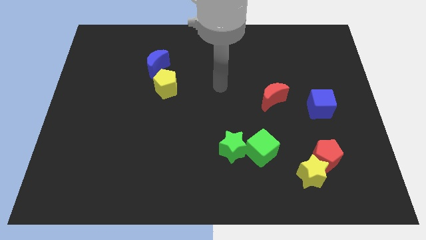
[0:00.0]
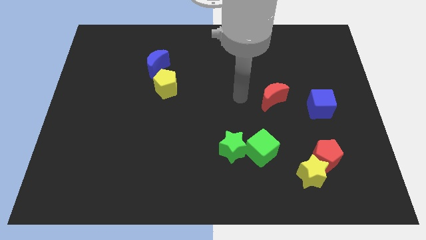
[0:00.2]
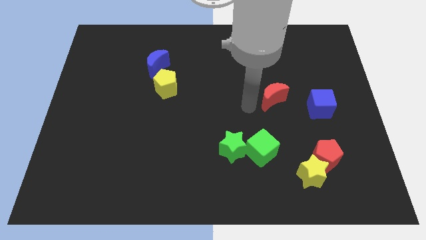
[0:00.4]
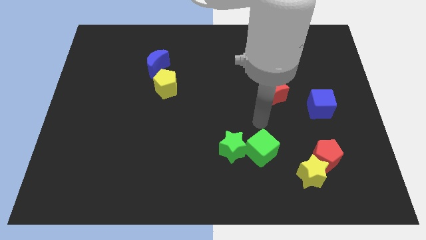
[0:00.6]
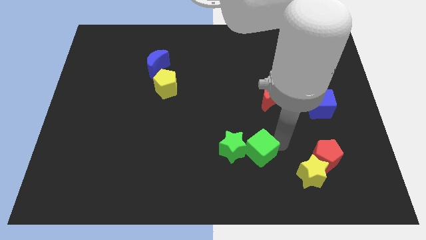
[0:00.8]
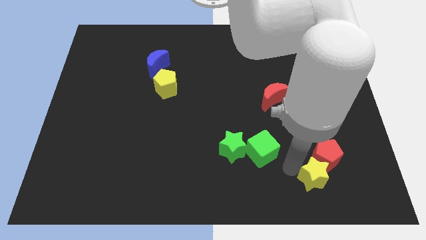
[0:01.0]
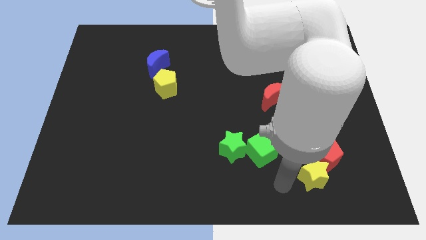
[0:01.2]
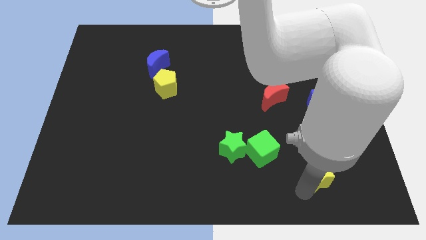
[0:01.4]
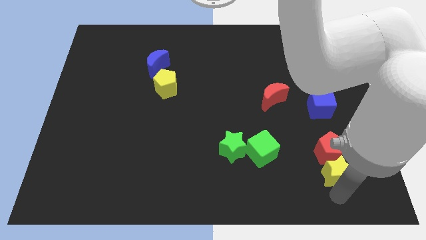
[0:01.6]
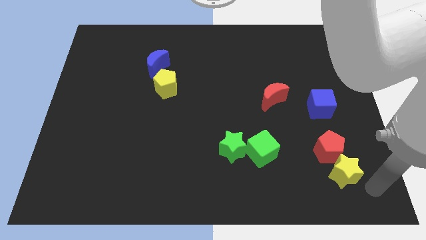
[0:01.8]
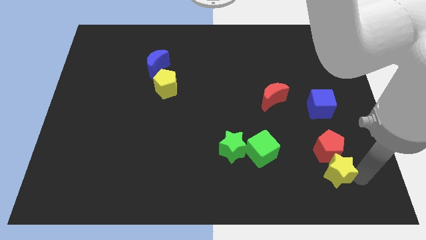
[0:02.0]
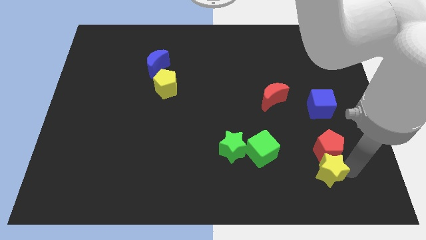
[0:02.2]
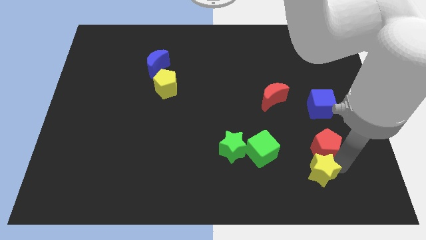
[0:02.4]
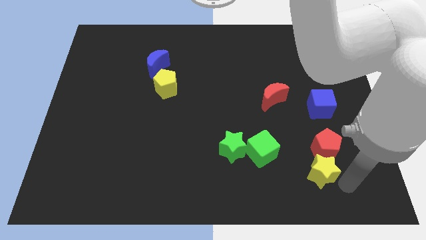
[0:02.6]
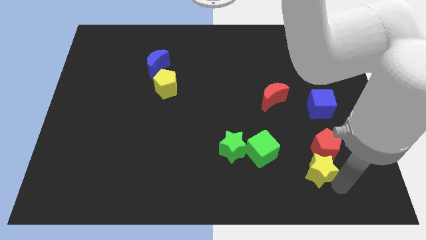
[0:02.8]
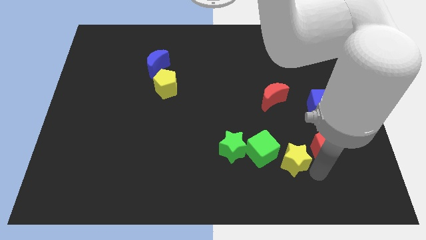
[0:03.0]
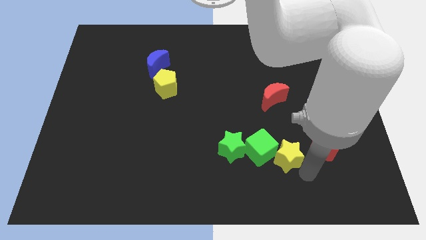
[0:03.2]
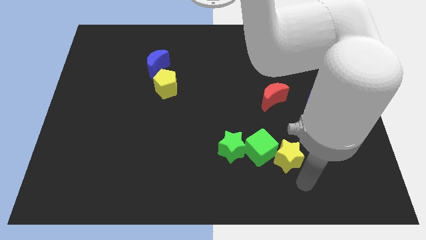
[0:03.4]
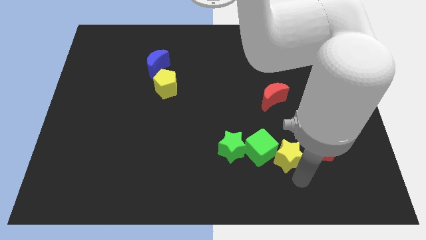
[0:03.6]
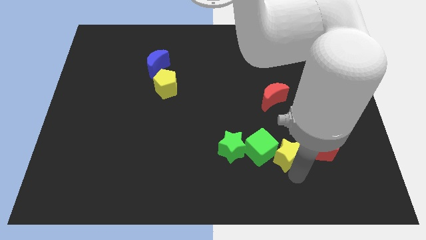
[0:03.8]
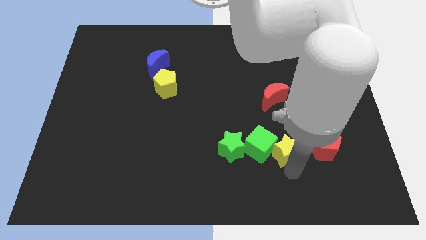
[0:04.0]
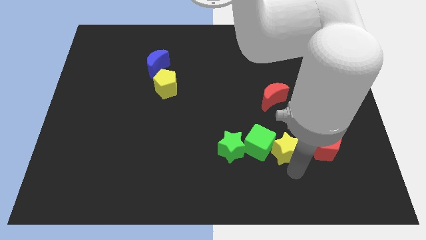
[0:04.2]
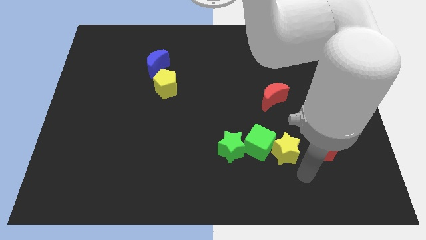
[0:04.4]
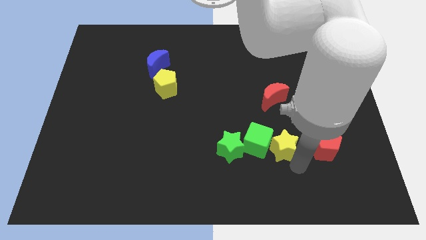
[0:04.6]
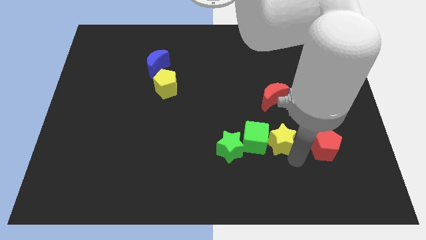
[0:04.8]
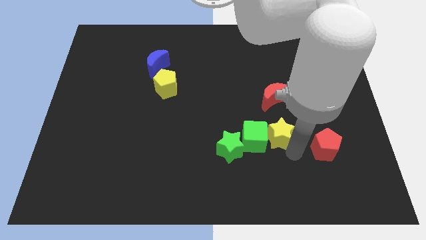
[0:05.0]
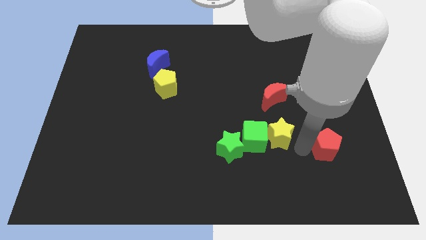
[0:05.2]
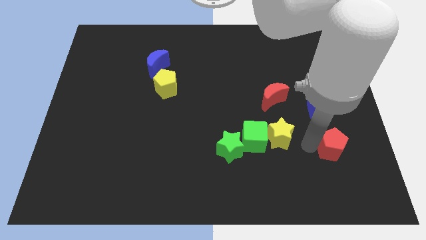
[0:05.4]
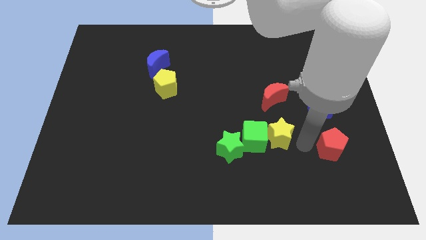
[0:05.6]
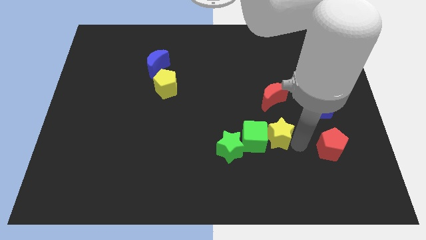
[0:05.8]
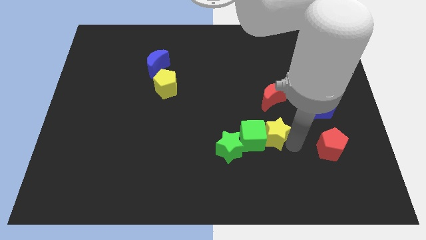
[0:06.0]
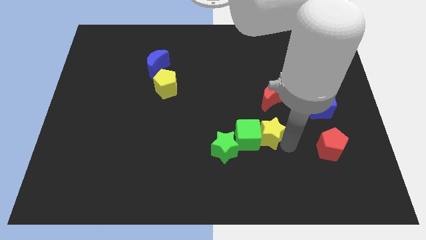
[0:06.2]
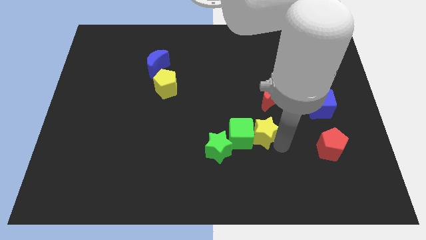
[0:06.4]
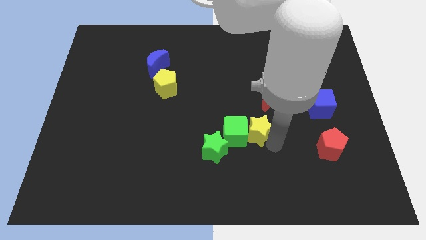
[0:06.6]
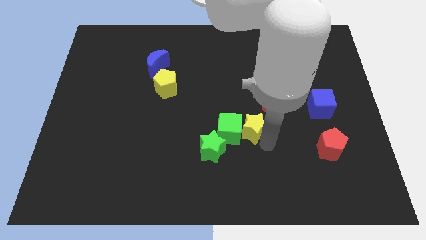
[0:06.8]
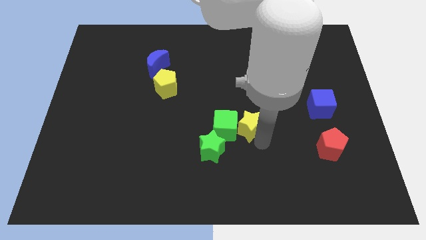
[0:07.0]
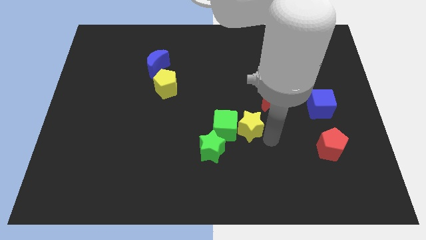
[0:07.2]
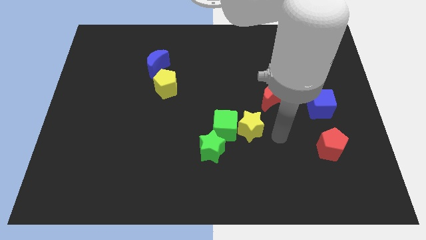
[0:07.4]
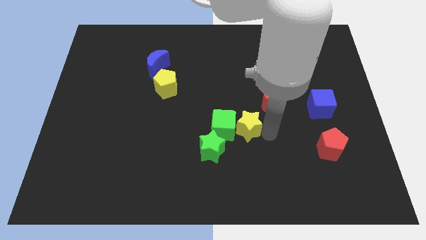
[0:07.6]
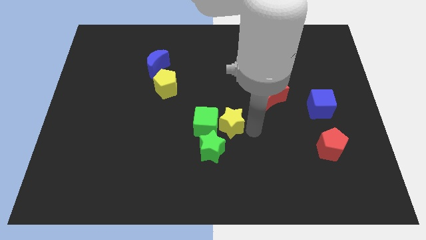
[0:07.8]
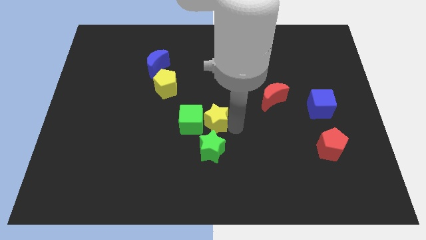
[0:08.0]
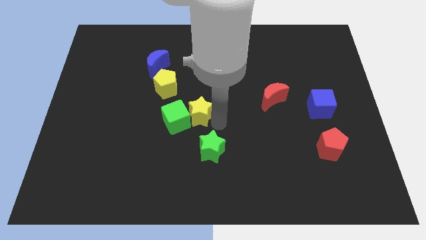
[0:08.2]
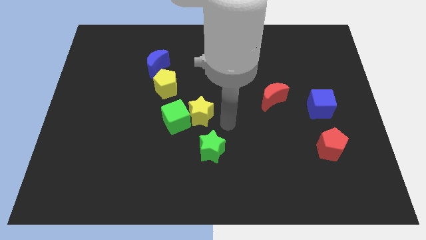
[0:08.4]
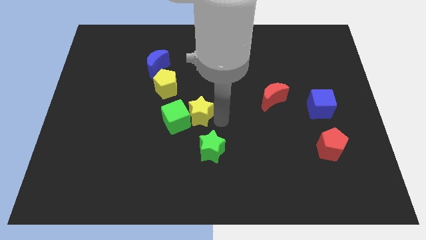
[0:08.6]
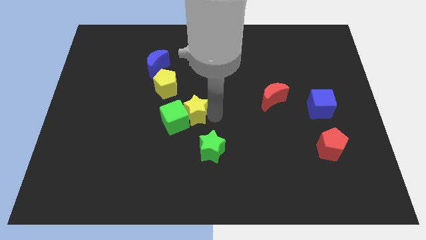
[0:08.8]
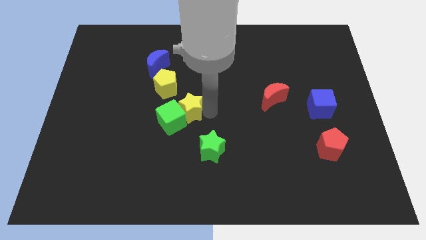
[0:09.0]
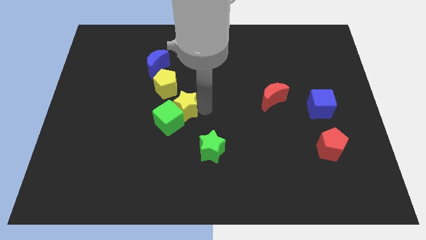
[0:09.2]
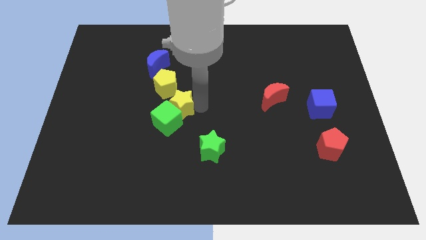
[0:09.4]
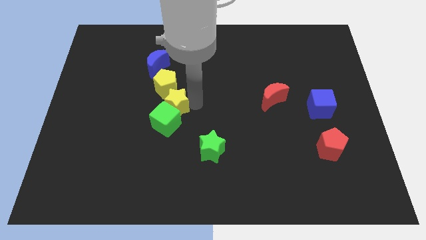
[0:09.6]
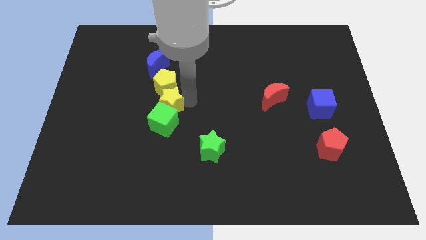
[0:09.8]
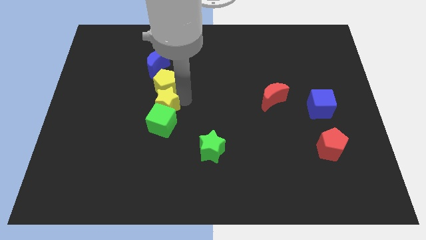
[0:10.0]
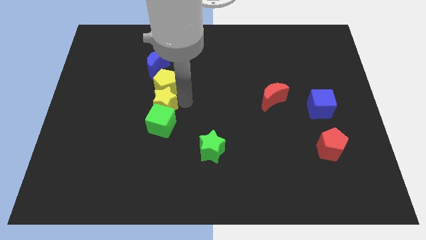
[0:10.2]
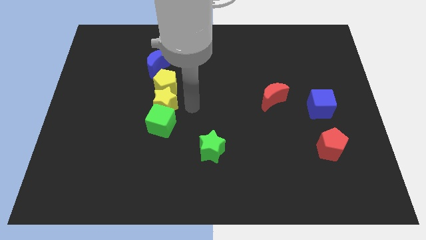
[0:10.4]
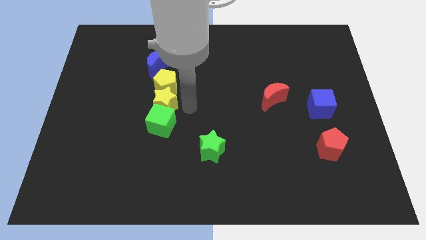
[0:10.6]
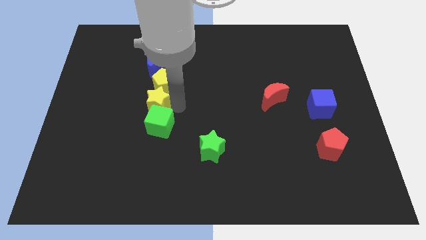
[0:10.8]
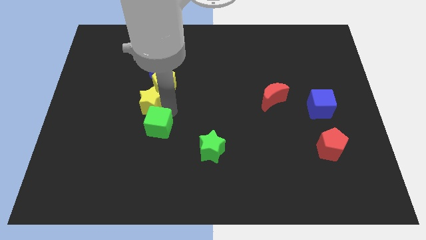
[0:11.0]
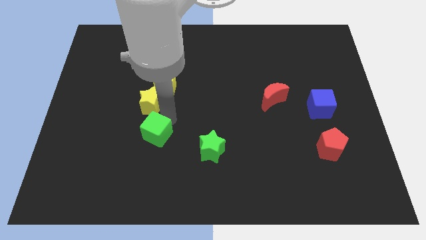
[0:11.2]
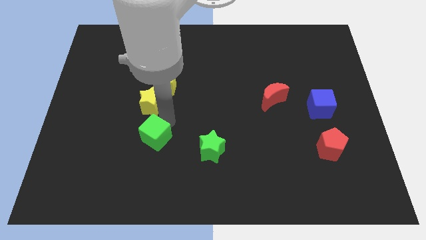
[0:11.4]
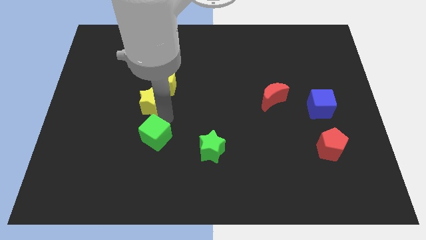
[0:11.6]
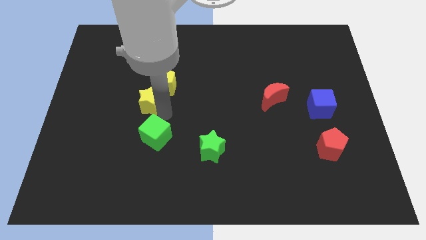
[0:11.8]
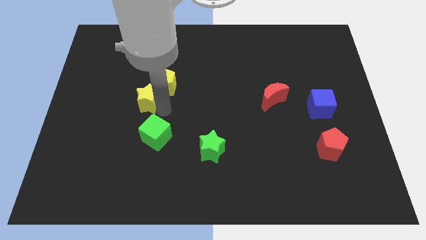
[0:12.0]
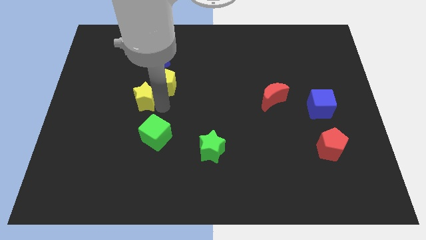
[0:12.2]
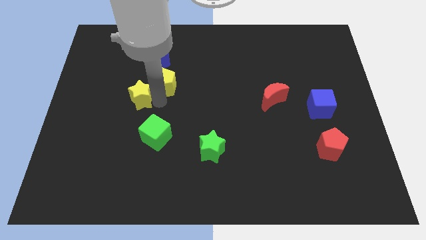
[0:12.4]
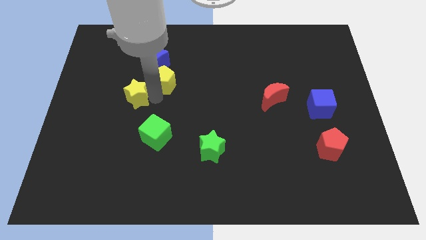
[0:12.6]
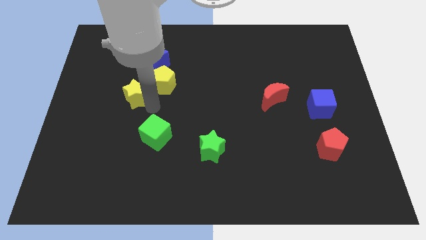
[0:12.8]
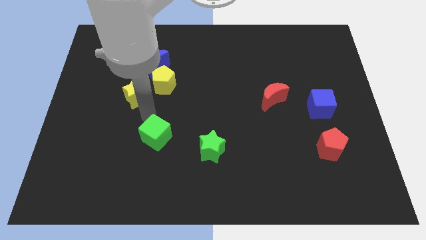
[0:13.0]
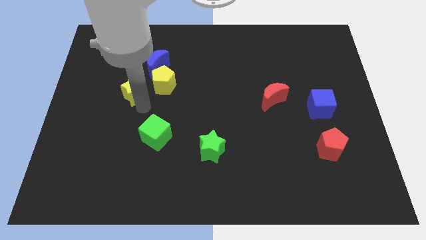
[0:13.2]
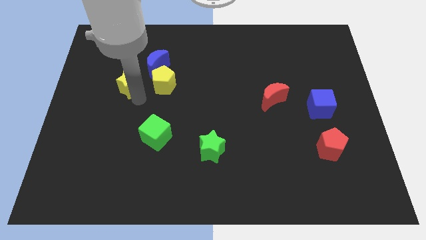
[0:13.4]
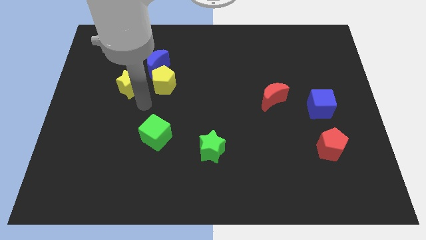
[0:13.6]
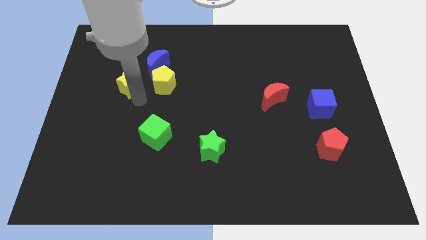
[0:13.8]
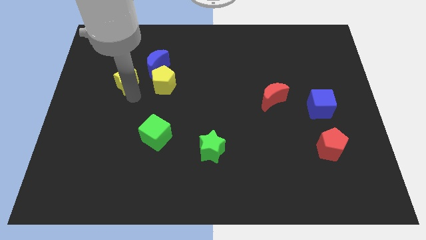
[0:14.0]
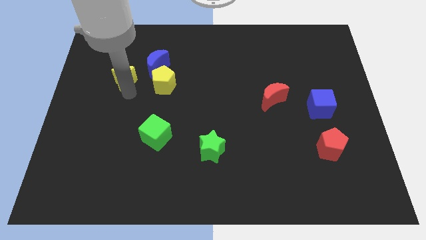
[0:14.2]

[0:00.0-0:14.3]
move the yellow star just left of the blue moon

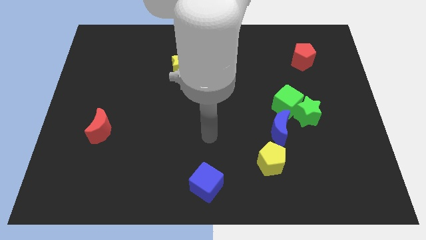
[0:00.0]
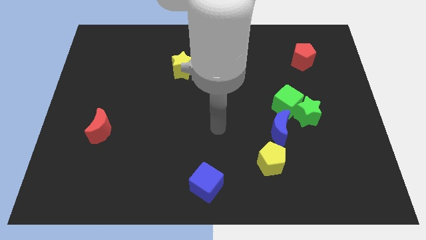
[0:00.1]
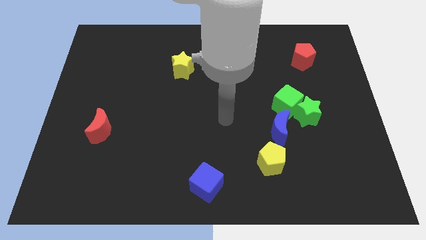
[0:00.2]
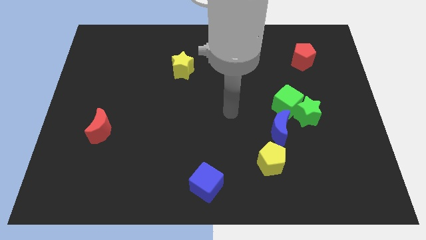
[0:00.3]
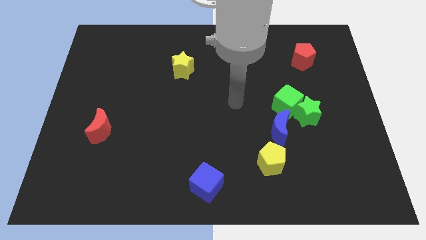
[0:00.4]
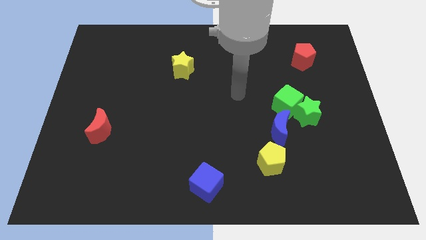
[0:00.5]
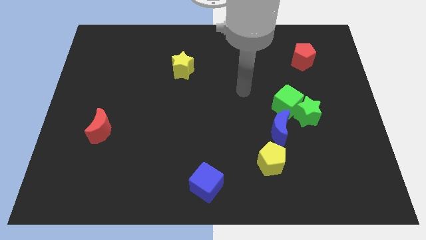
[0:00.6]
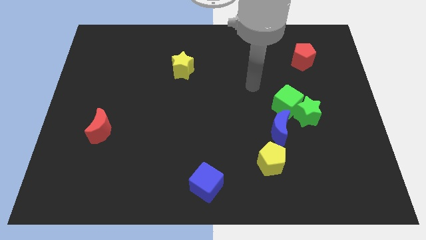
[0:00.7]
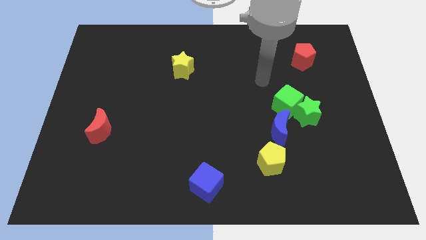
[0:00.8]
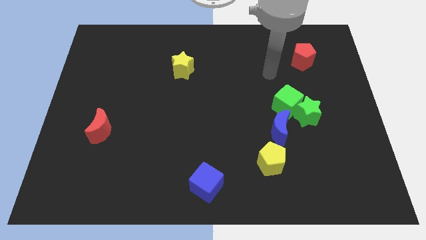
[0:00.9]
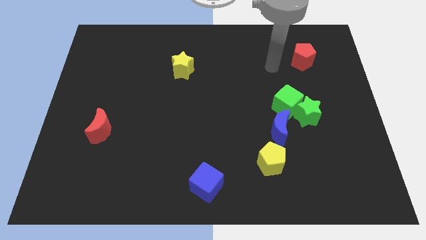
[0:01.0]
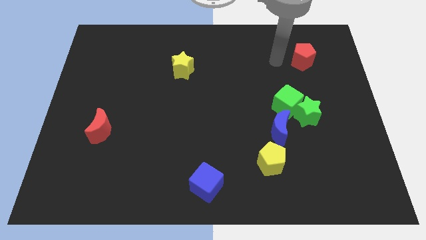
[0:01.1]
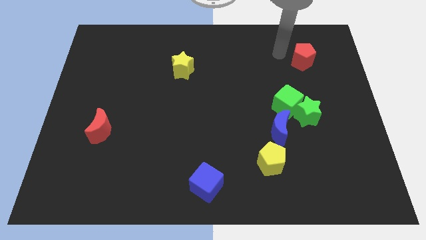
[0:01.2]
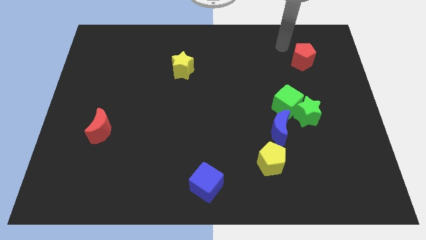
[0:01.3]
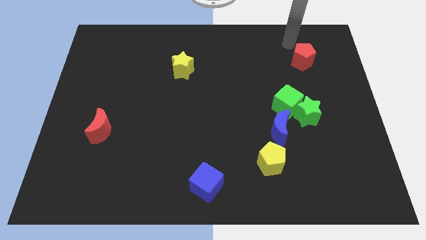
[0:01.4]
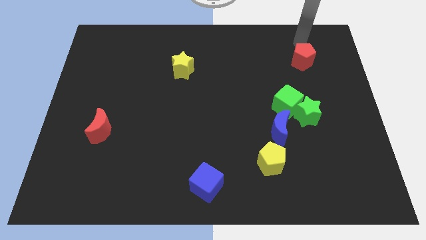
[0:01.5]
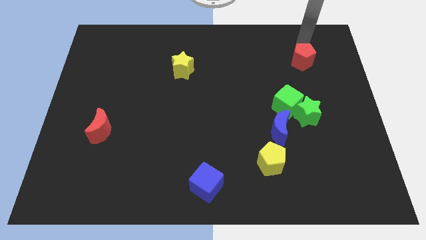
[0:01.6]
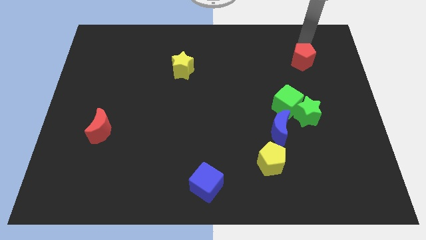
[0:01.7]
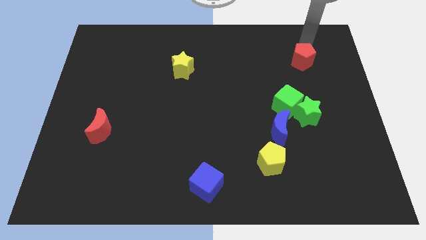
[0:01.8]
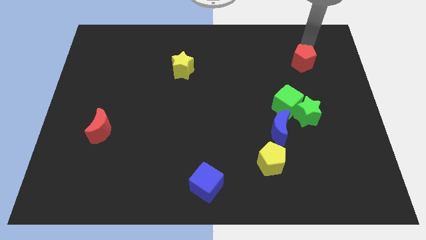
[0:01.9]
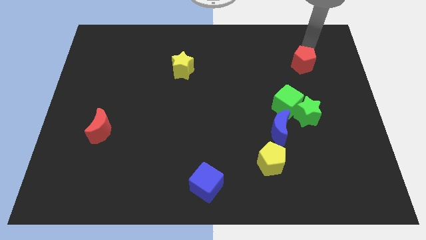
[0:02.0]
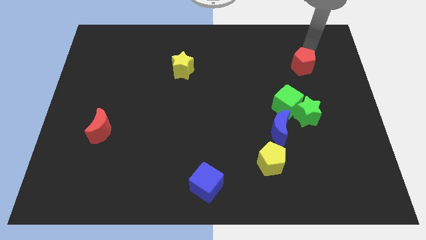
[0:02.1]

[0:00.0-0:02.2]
slide the red pentagon above the green star
